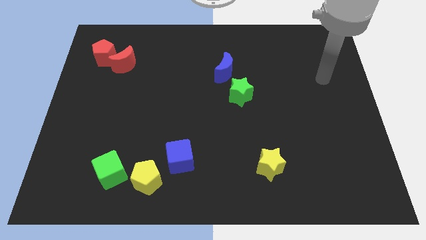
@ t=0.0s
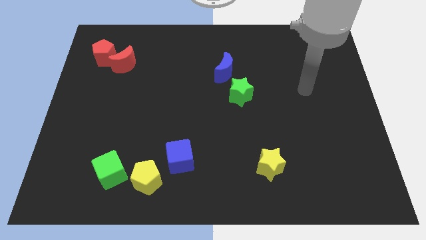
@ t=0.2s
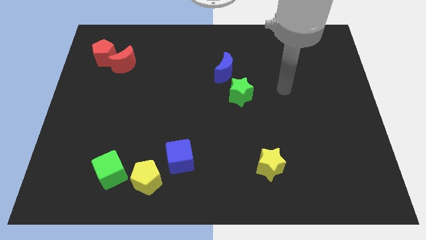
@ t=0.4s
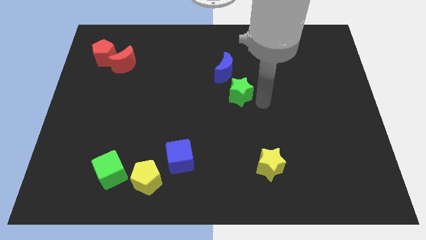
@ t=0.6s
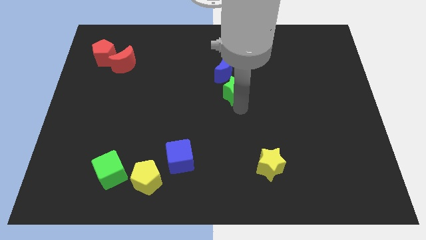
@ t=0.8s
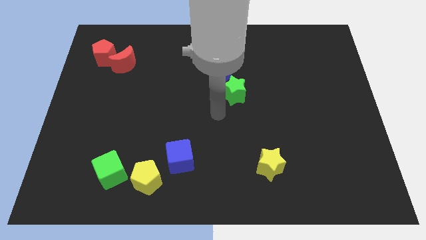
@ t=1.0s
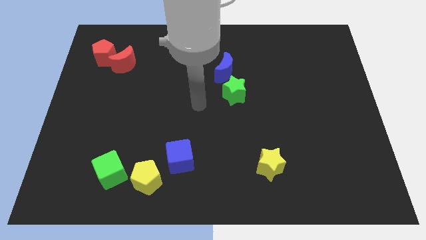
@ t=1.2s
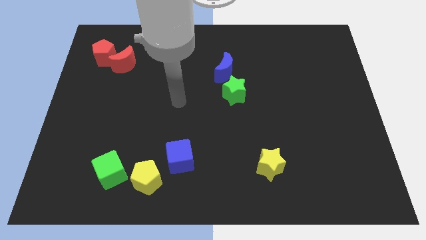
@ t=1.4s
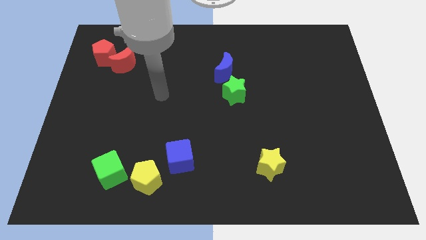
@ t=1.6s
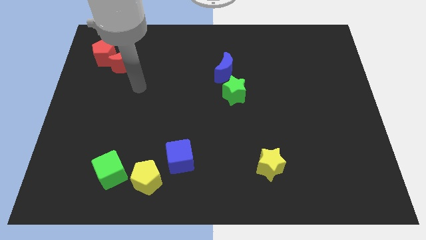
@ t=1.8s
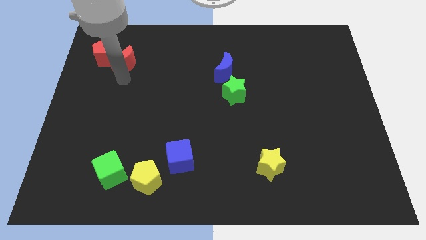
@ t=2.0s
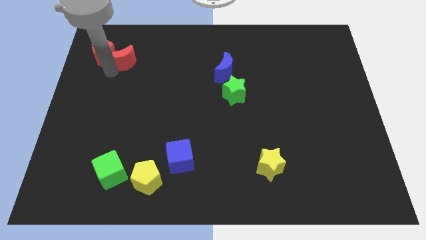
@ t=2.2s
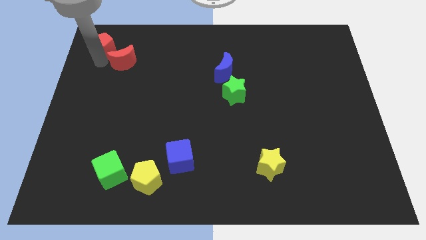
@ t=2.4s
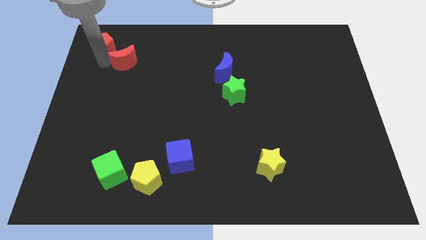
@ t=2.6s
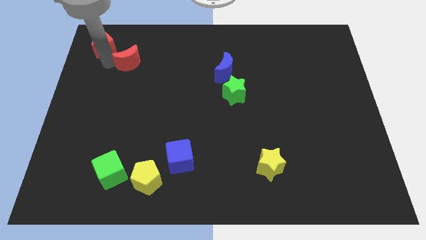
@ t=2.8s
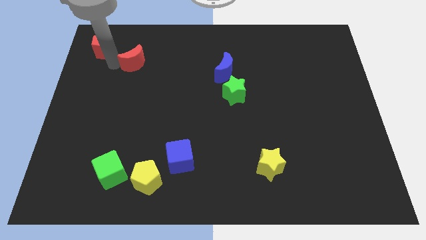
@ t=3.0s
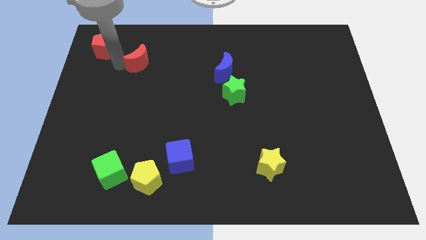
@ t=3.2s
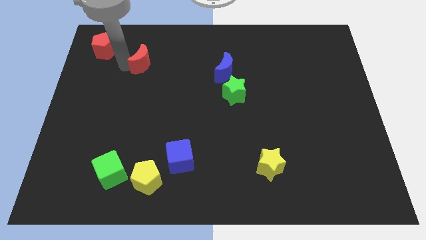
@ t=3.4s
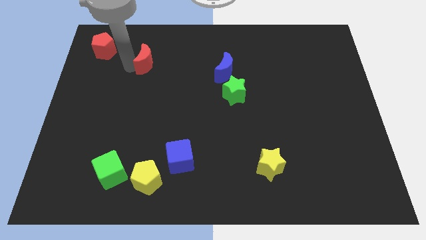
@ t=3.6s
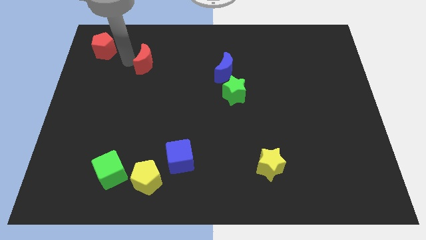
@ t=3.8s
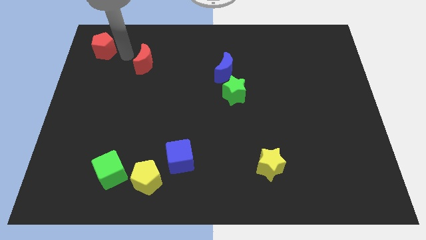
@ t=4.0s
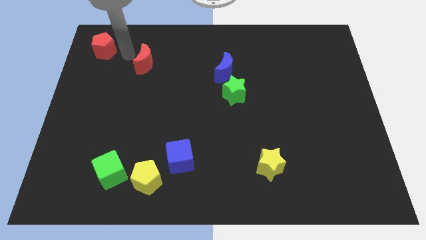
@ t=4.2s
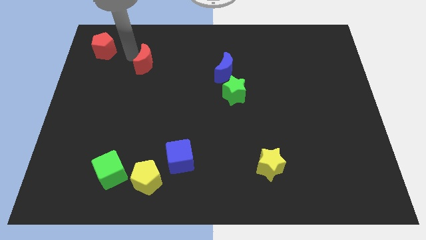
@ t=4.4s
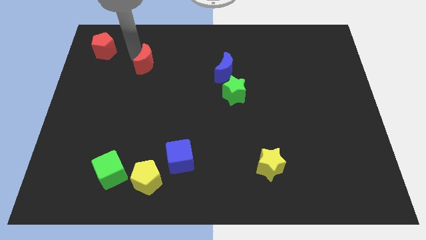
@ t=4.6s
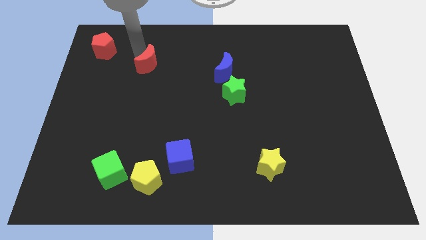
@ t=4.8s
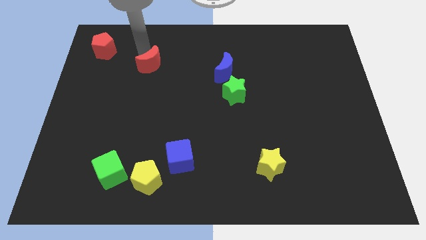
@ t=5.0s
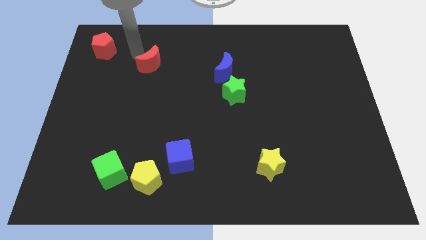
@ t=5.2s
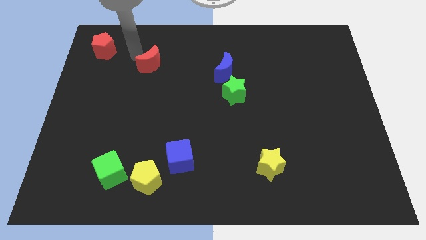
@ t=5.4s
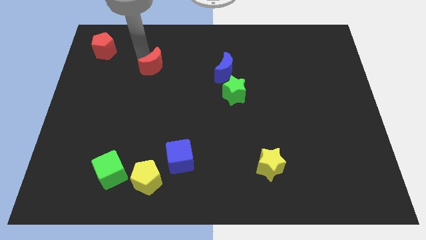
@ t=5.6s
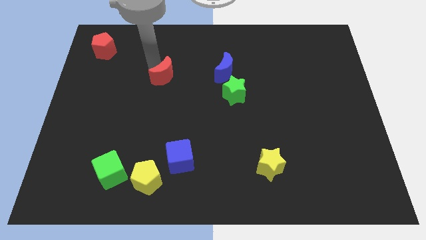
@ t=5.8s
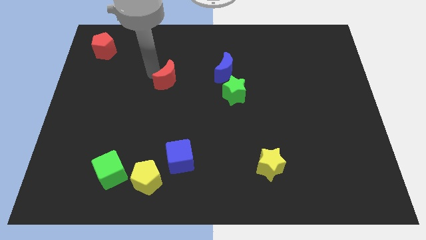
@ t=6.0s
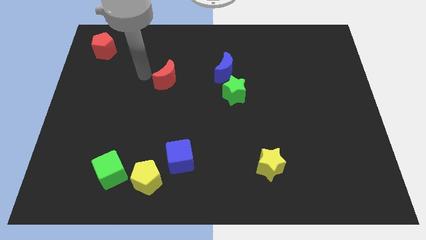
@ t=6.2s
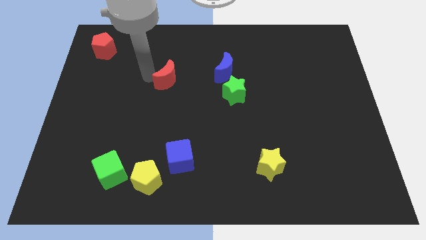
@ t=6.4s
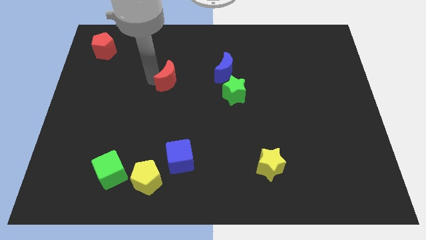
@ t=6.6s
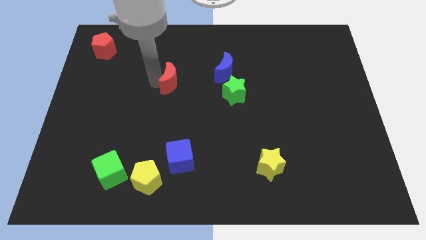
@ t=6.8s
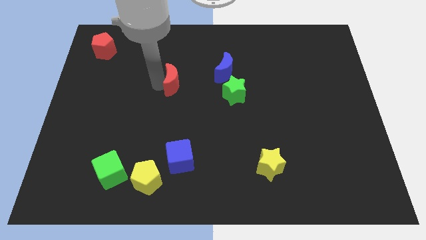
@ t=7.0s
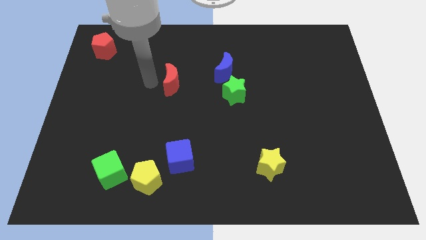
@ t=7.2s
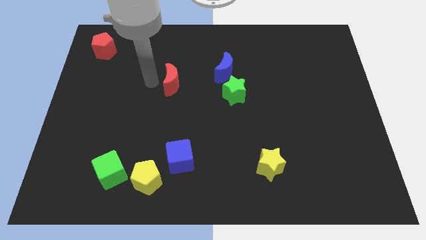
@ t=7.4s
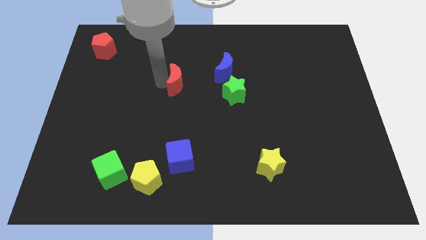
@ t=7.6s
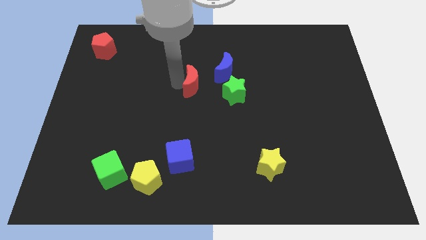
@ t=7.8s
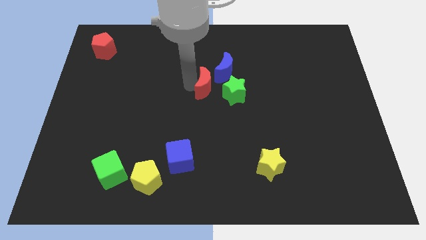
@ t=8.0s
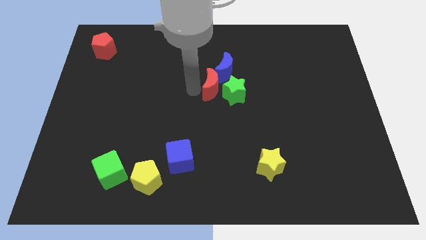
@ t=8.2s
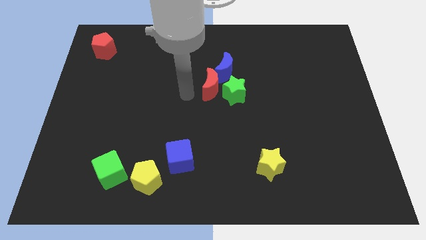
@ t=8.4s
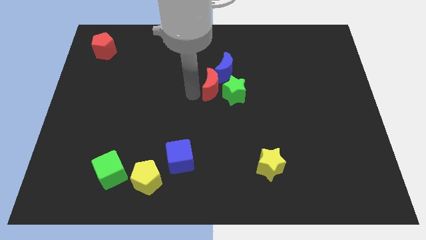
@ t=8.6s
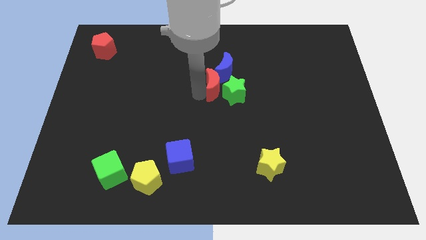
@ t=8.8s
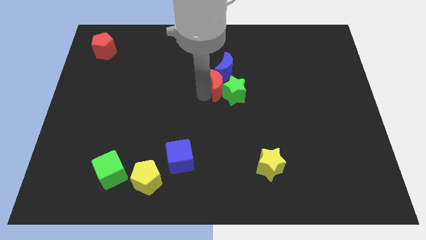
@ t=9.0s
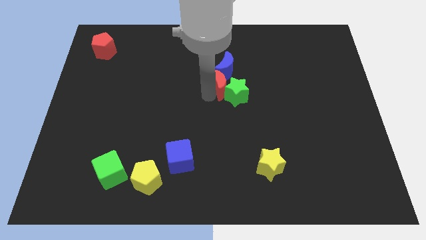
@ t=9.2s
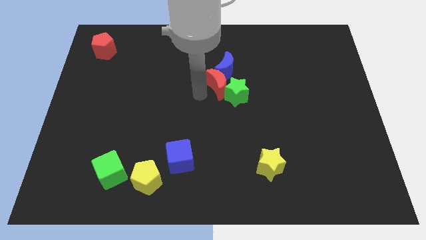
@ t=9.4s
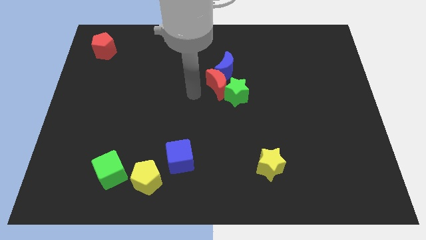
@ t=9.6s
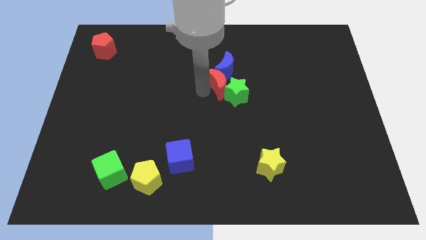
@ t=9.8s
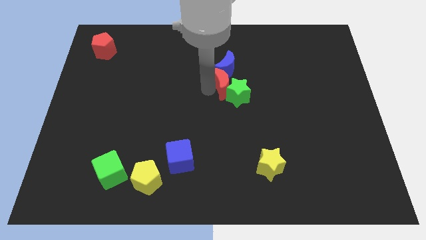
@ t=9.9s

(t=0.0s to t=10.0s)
push the red moon to the bottom right of the blue moon

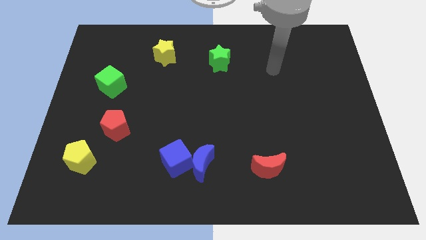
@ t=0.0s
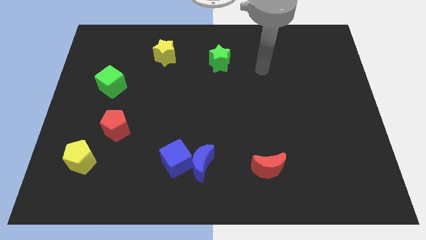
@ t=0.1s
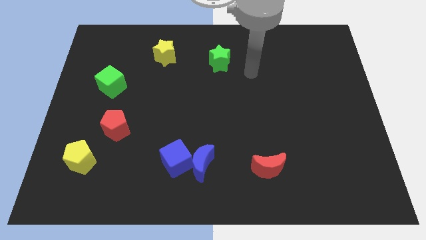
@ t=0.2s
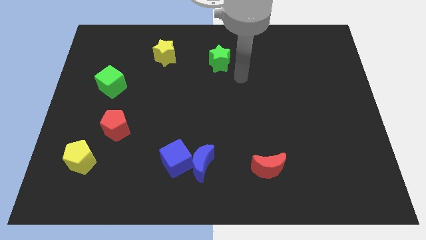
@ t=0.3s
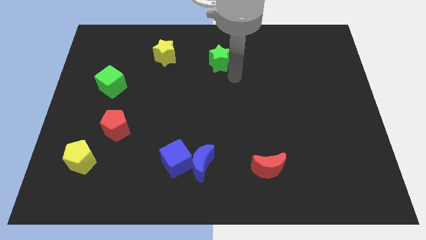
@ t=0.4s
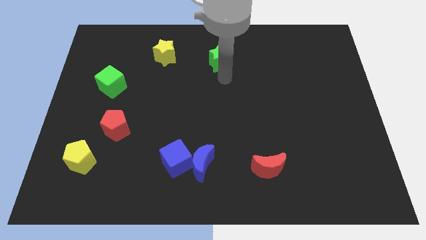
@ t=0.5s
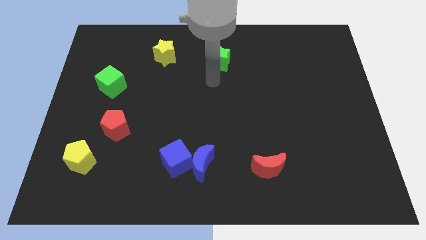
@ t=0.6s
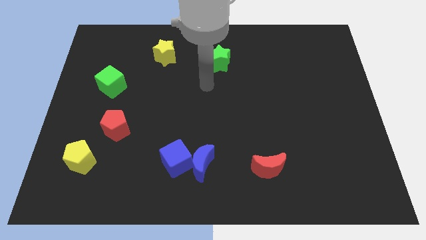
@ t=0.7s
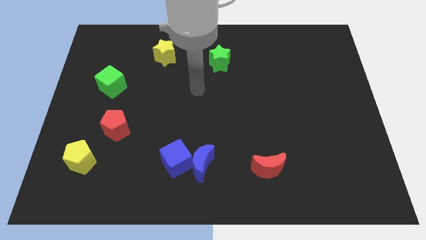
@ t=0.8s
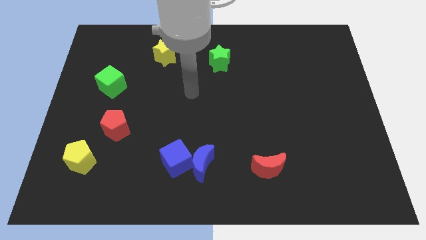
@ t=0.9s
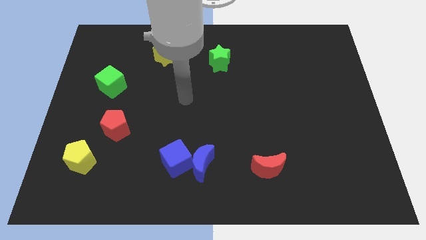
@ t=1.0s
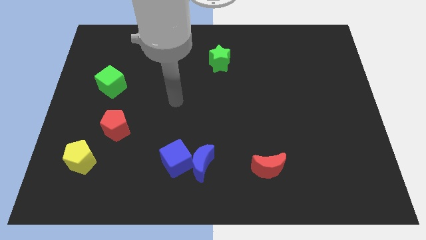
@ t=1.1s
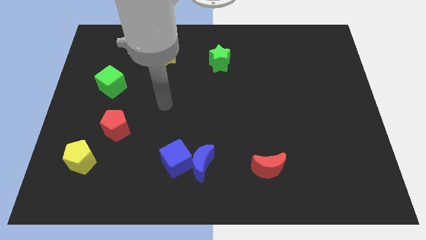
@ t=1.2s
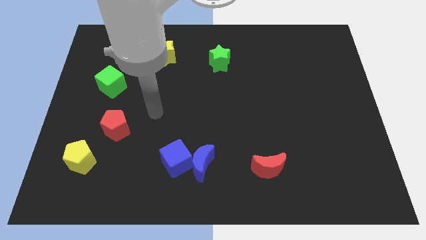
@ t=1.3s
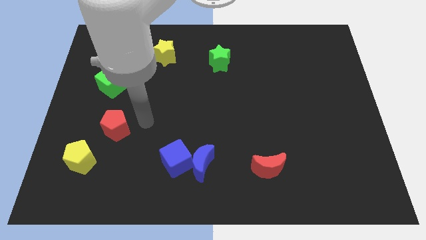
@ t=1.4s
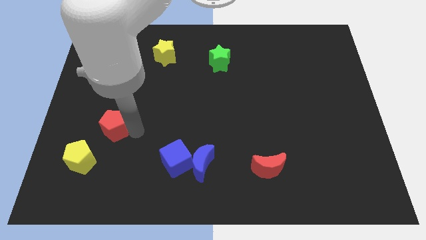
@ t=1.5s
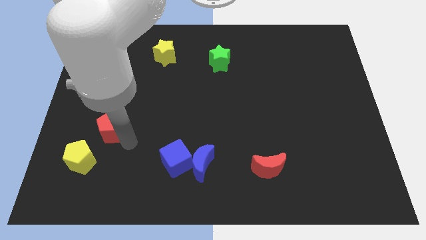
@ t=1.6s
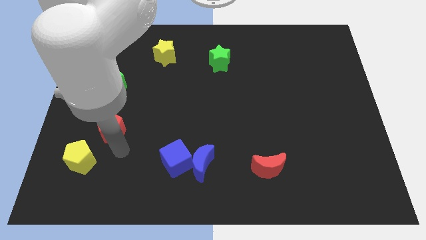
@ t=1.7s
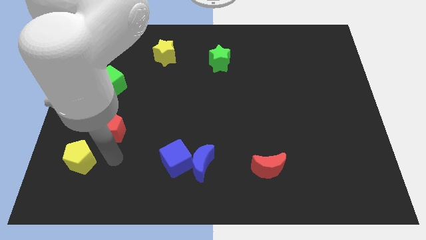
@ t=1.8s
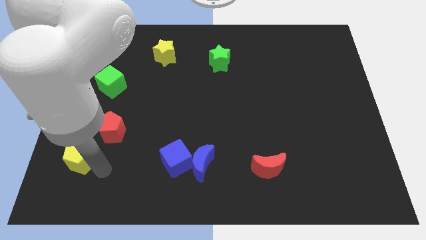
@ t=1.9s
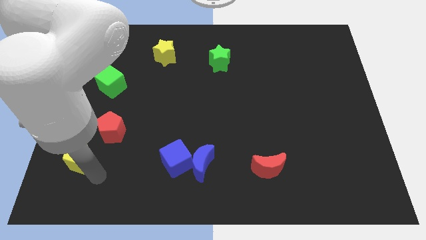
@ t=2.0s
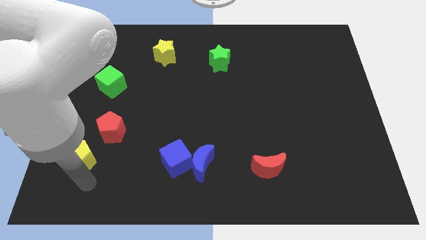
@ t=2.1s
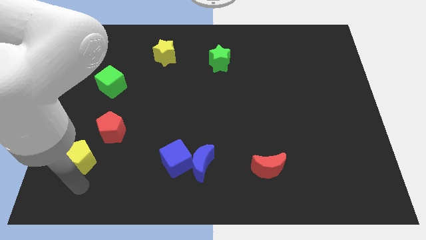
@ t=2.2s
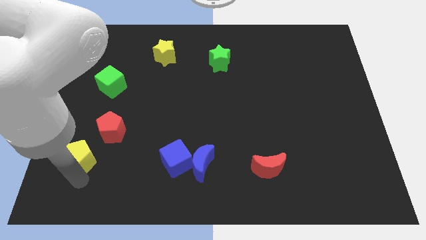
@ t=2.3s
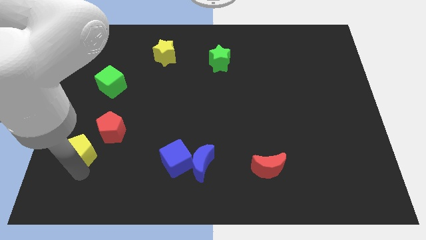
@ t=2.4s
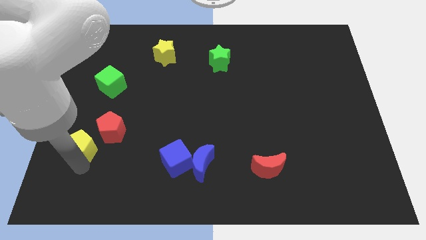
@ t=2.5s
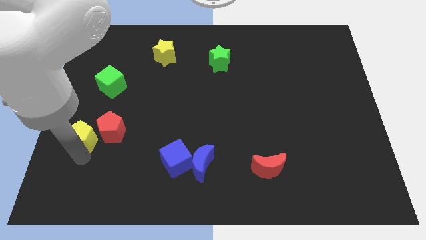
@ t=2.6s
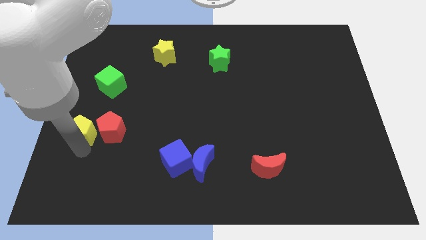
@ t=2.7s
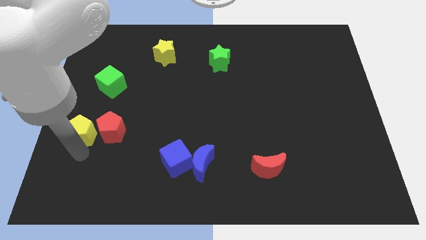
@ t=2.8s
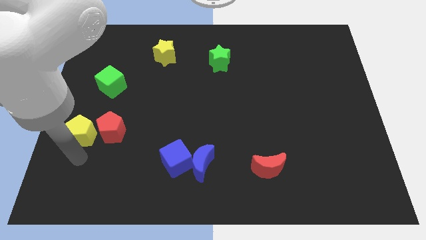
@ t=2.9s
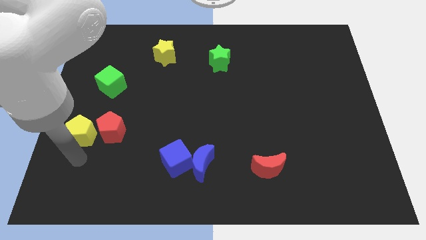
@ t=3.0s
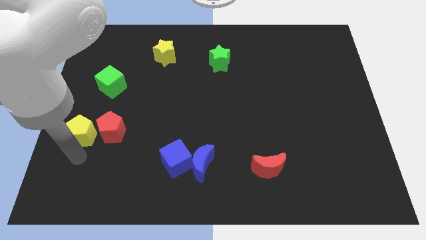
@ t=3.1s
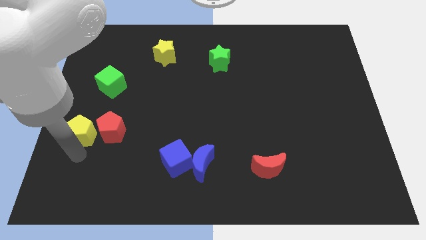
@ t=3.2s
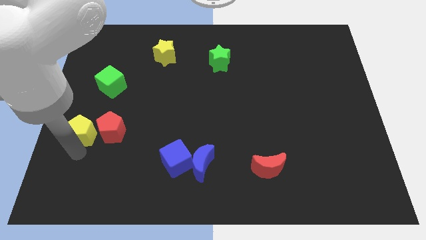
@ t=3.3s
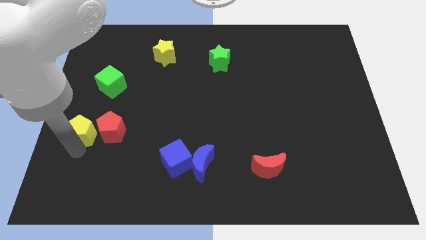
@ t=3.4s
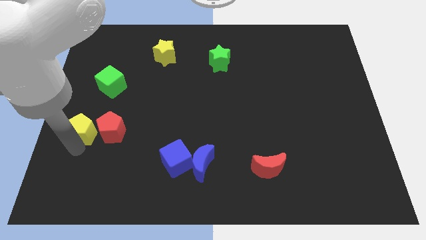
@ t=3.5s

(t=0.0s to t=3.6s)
move the yellow pentagon to the bottom of the green cube
